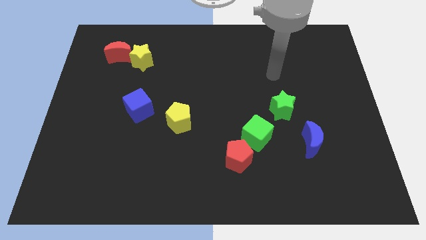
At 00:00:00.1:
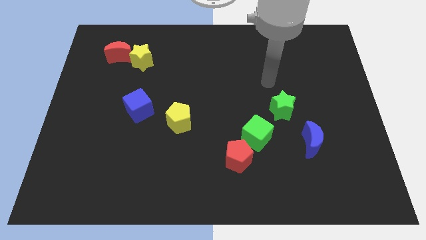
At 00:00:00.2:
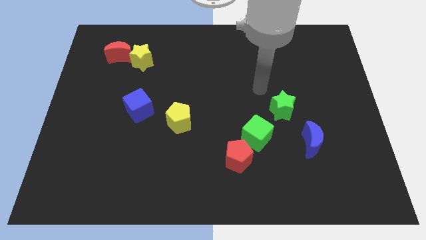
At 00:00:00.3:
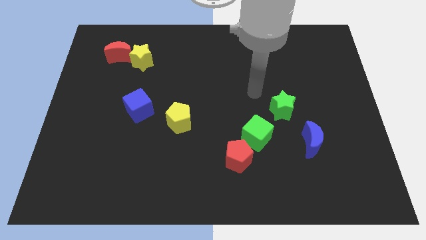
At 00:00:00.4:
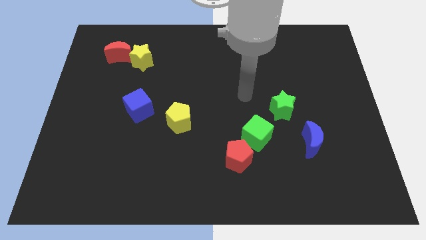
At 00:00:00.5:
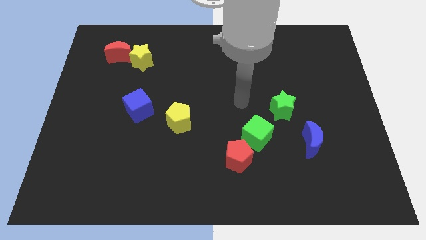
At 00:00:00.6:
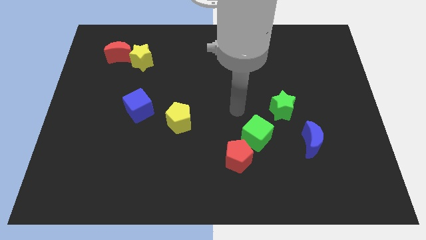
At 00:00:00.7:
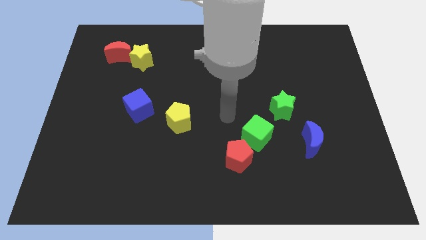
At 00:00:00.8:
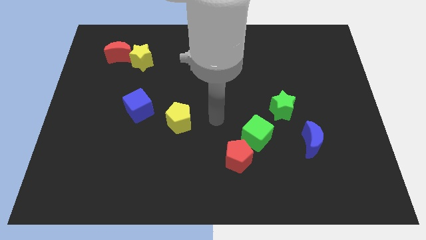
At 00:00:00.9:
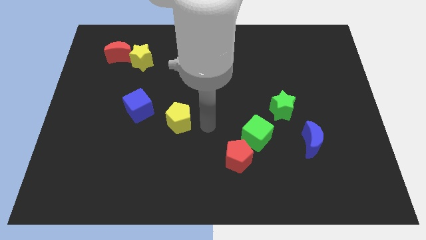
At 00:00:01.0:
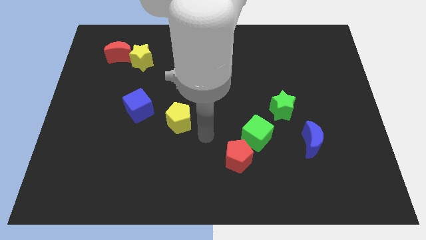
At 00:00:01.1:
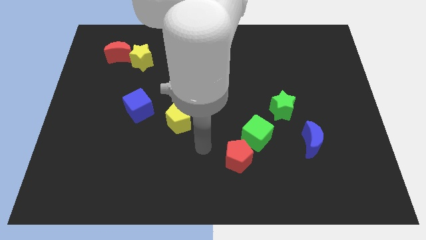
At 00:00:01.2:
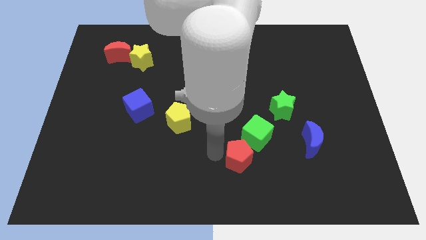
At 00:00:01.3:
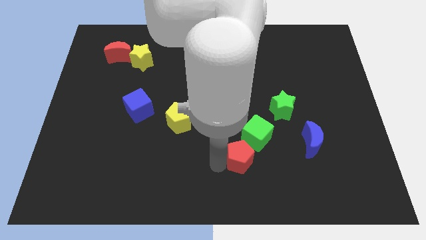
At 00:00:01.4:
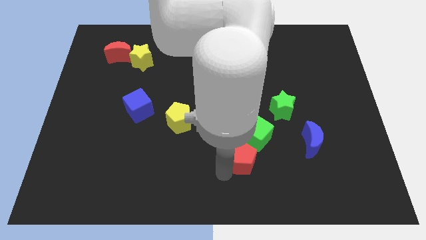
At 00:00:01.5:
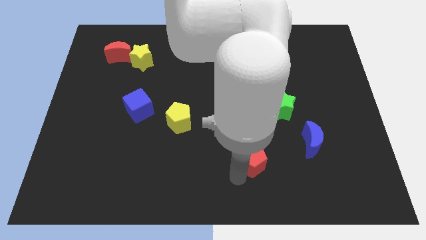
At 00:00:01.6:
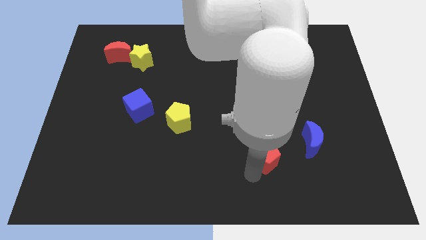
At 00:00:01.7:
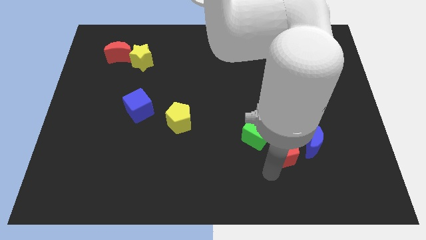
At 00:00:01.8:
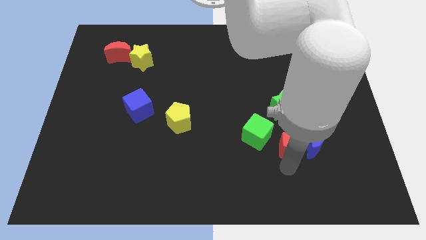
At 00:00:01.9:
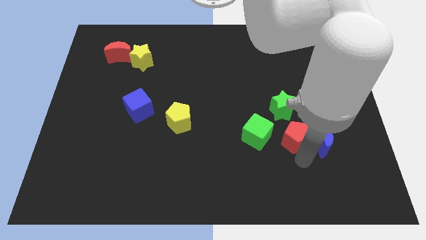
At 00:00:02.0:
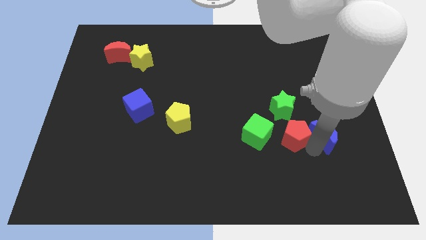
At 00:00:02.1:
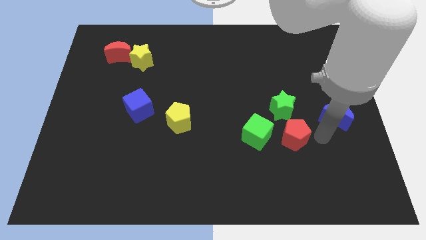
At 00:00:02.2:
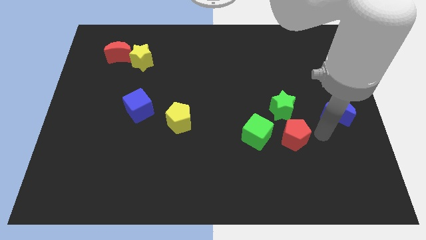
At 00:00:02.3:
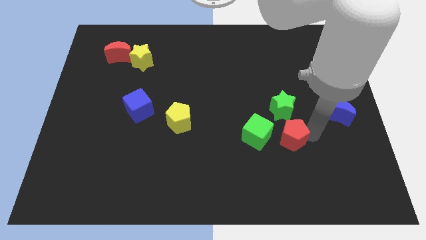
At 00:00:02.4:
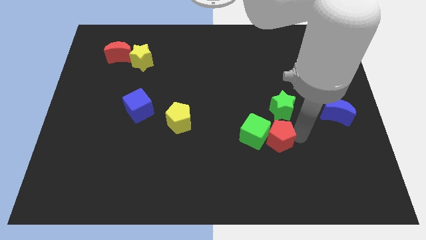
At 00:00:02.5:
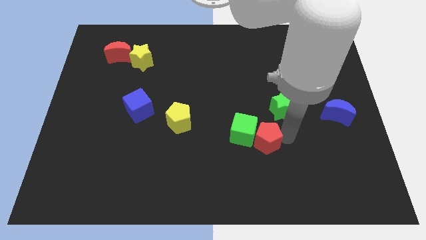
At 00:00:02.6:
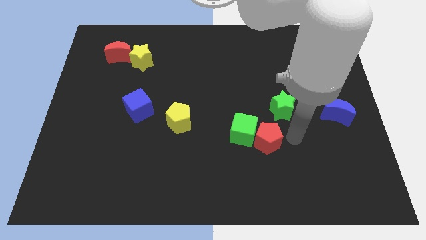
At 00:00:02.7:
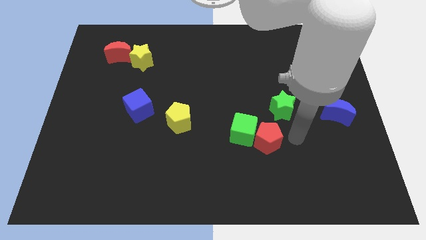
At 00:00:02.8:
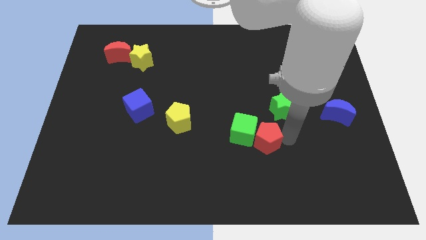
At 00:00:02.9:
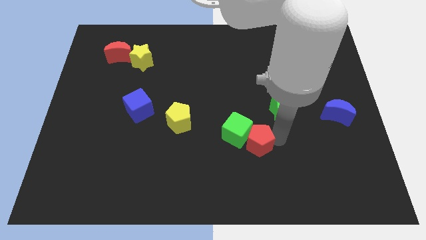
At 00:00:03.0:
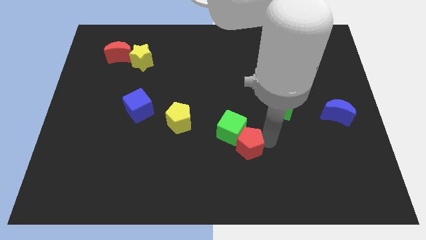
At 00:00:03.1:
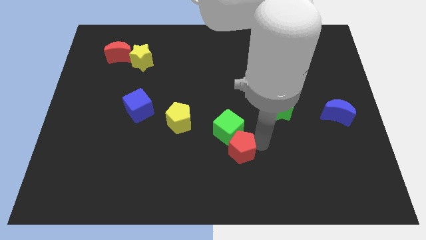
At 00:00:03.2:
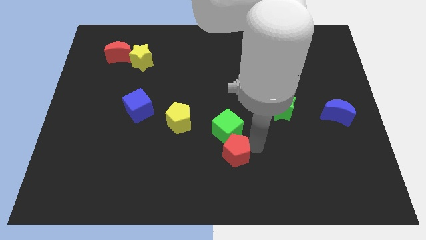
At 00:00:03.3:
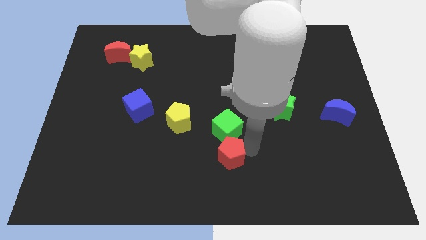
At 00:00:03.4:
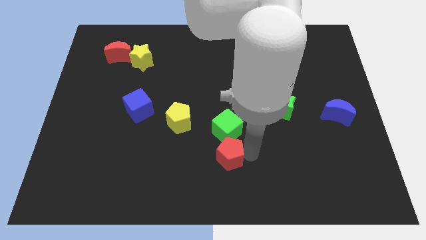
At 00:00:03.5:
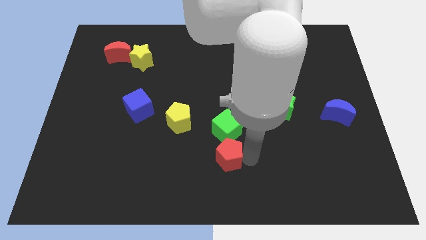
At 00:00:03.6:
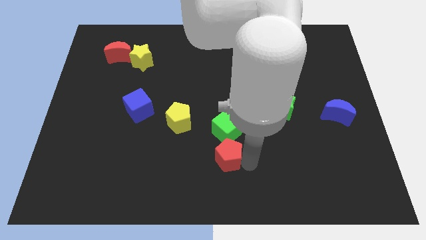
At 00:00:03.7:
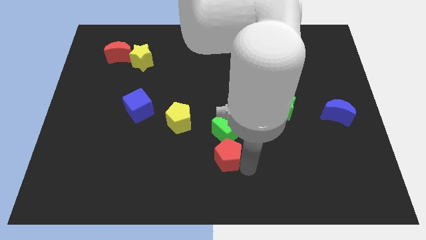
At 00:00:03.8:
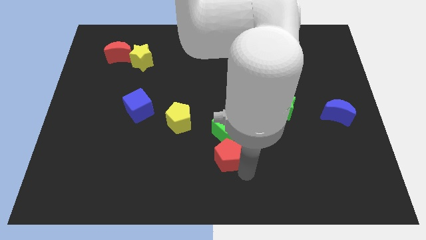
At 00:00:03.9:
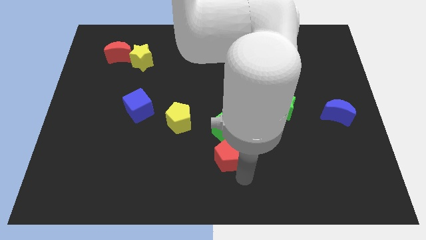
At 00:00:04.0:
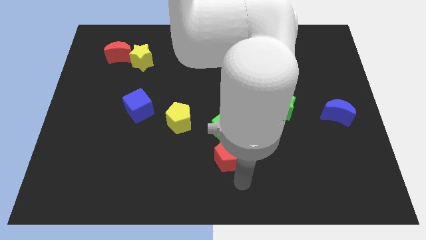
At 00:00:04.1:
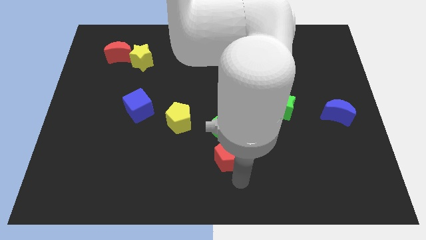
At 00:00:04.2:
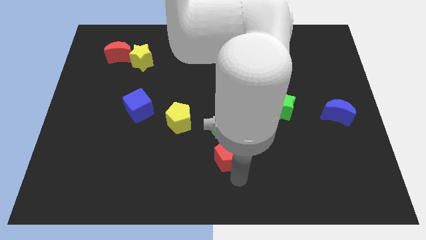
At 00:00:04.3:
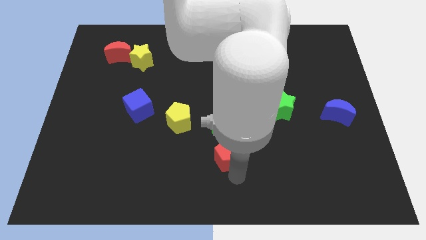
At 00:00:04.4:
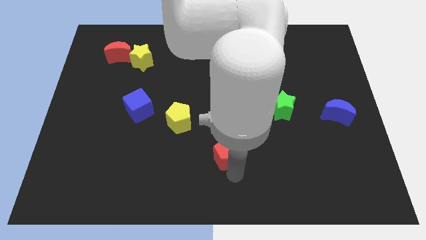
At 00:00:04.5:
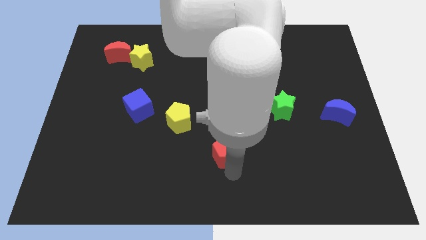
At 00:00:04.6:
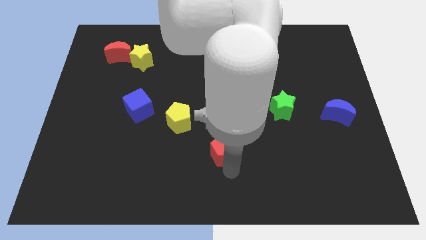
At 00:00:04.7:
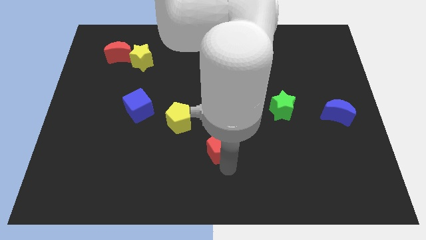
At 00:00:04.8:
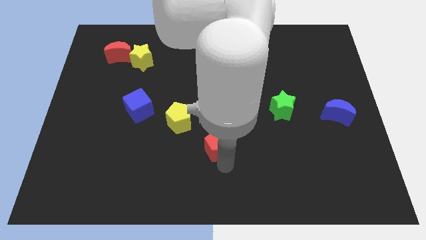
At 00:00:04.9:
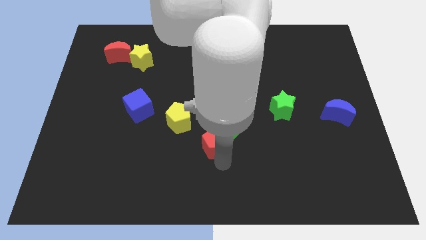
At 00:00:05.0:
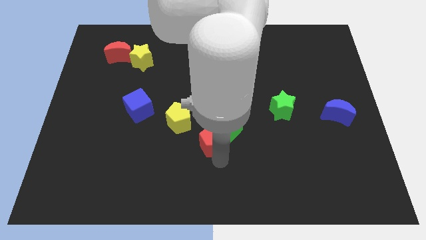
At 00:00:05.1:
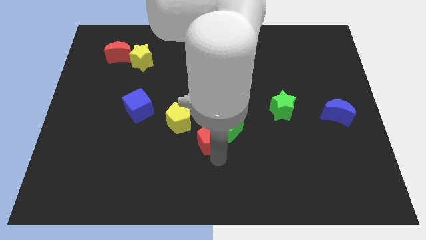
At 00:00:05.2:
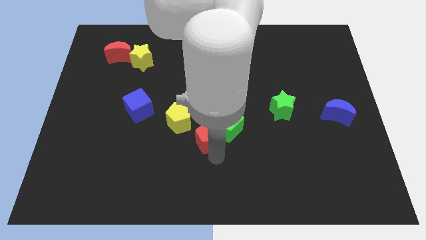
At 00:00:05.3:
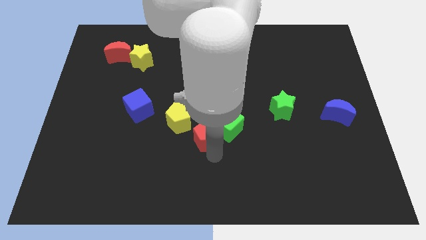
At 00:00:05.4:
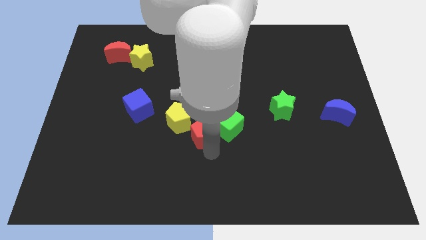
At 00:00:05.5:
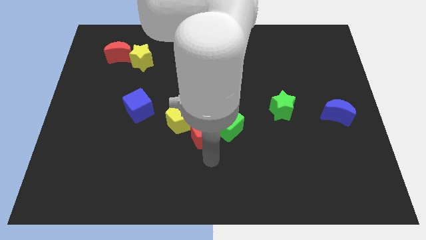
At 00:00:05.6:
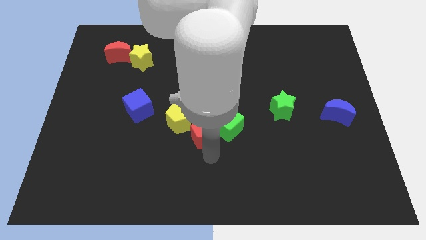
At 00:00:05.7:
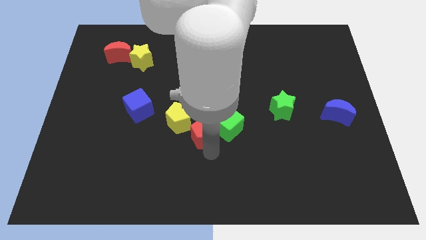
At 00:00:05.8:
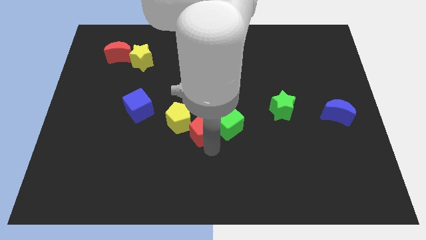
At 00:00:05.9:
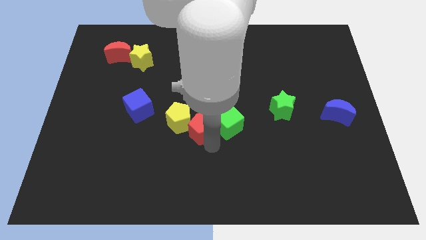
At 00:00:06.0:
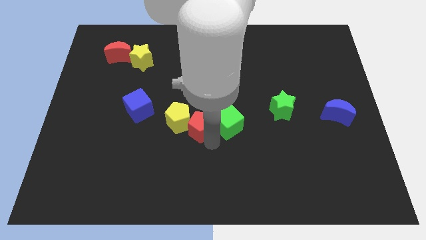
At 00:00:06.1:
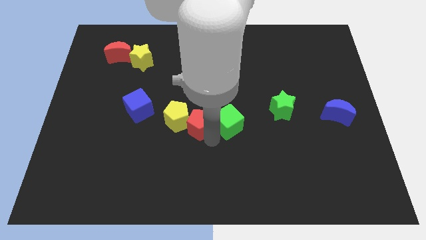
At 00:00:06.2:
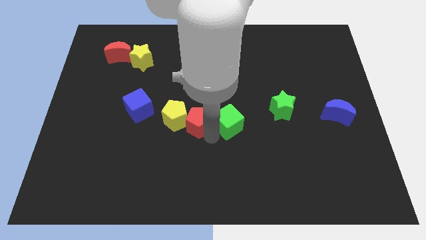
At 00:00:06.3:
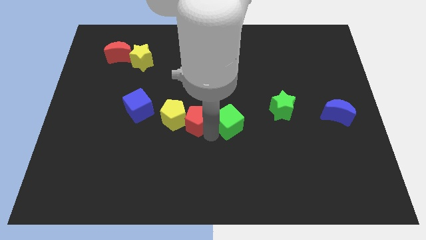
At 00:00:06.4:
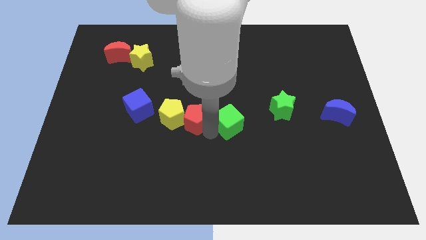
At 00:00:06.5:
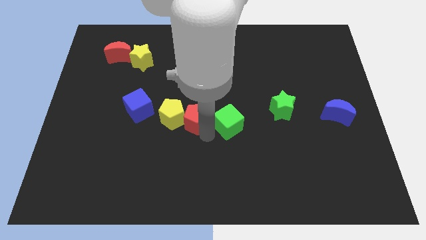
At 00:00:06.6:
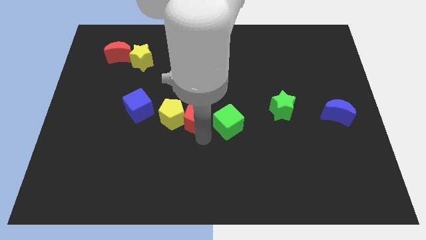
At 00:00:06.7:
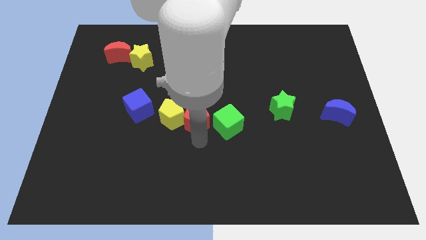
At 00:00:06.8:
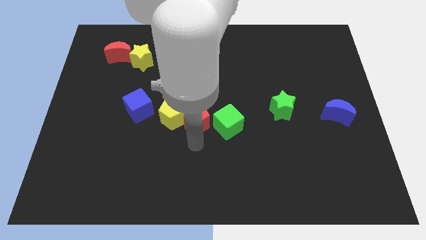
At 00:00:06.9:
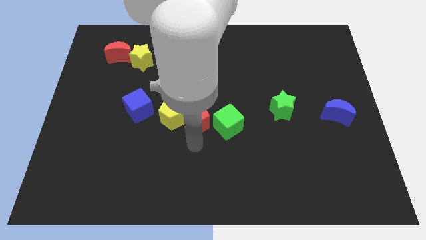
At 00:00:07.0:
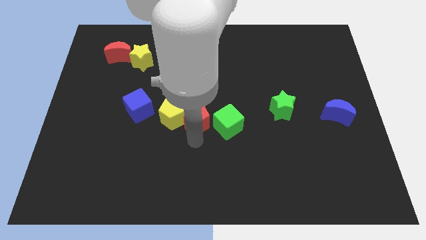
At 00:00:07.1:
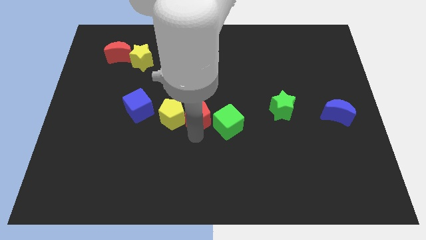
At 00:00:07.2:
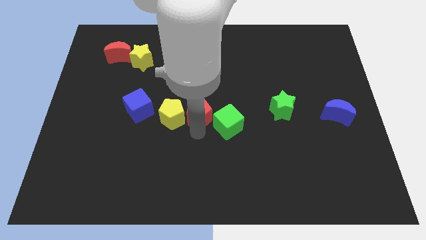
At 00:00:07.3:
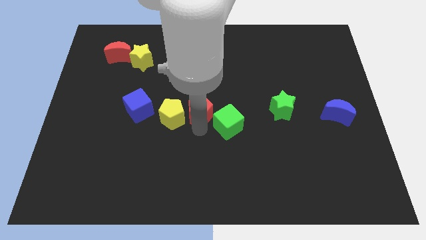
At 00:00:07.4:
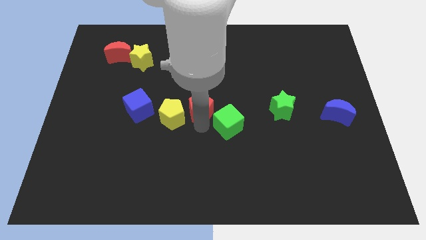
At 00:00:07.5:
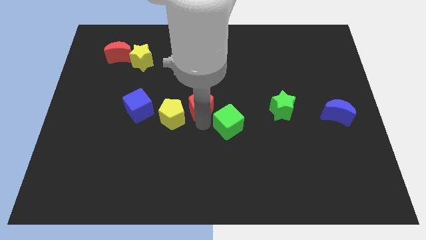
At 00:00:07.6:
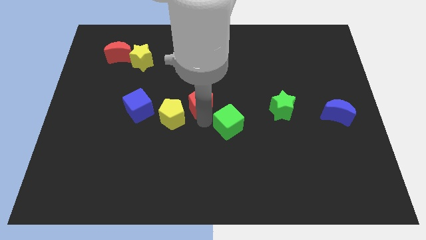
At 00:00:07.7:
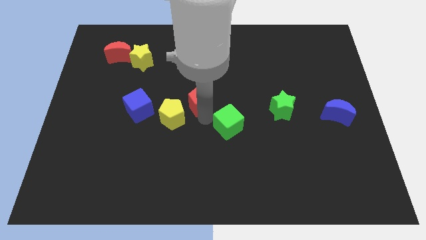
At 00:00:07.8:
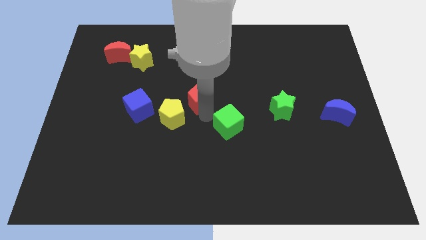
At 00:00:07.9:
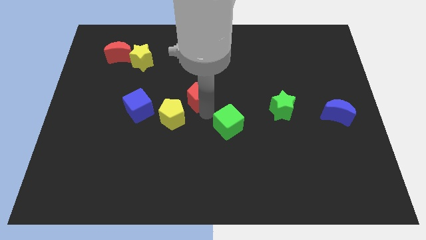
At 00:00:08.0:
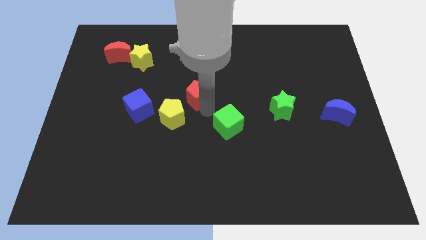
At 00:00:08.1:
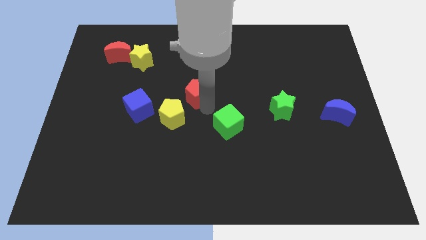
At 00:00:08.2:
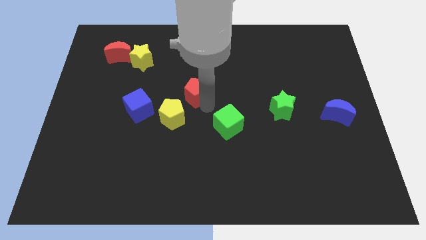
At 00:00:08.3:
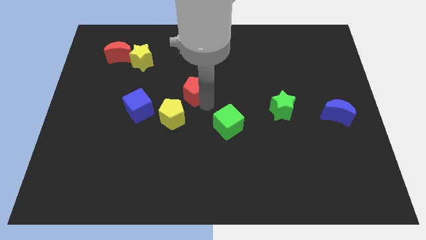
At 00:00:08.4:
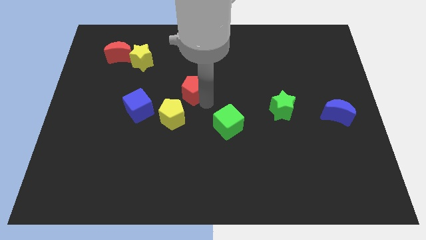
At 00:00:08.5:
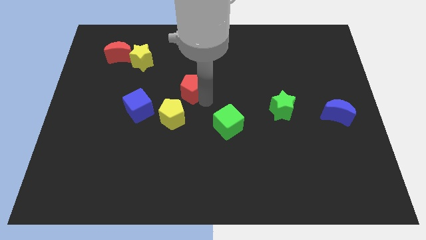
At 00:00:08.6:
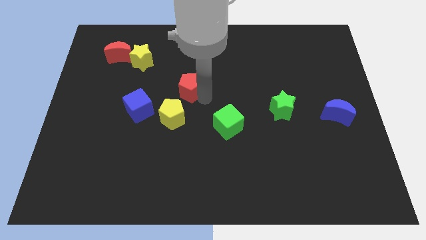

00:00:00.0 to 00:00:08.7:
slide the red pentagon upwards and to the left
